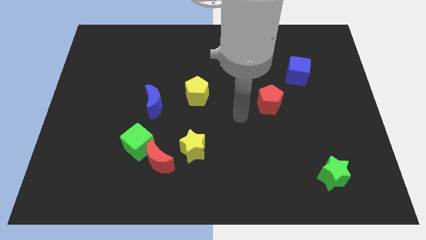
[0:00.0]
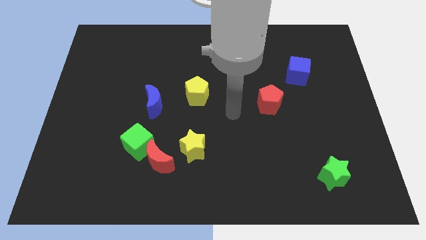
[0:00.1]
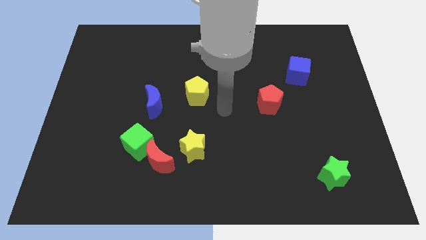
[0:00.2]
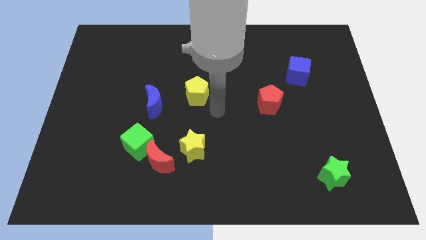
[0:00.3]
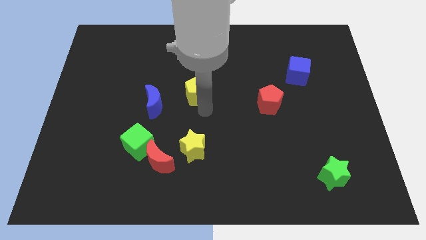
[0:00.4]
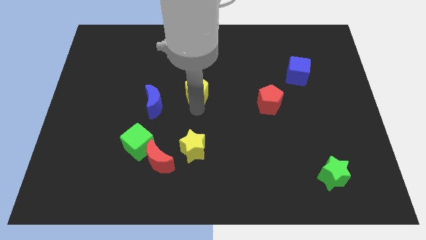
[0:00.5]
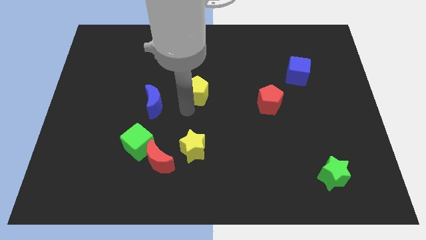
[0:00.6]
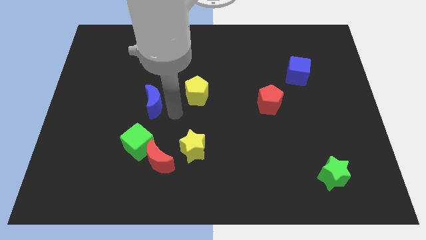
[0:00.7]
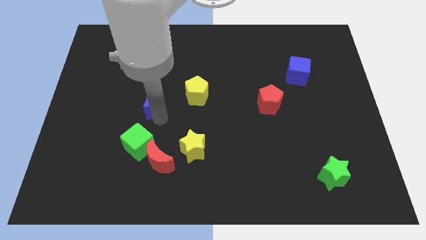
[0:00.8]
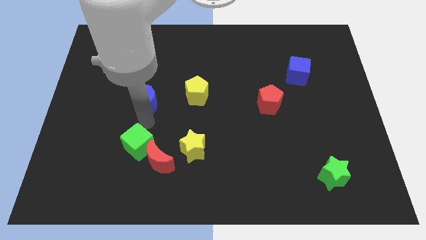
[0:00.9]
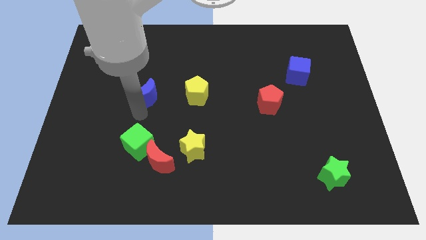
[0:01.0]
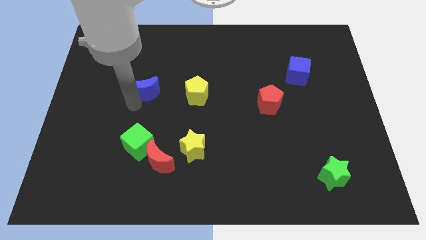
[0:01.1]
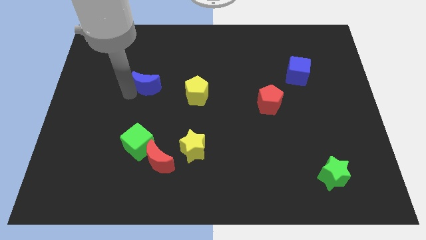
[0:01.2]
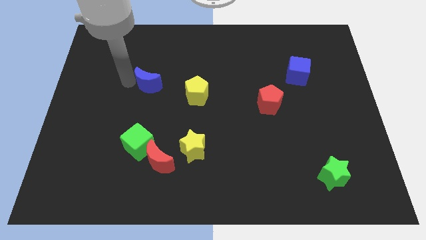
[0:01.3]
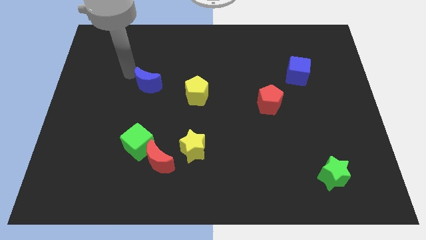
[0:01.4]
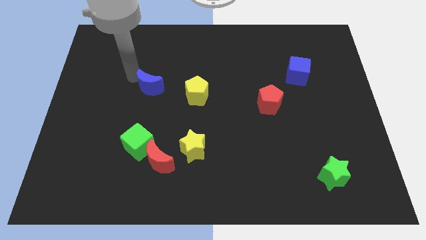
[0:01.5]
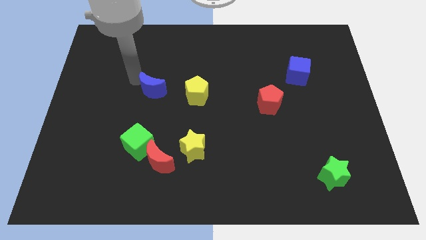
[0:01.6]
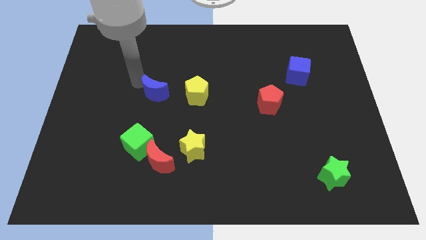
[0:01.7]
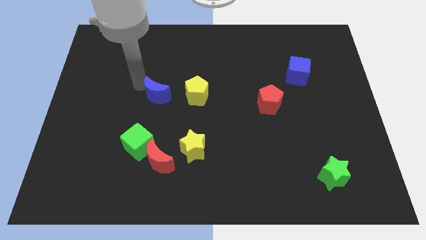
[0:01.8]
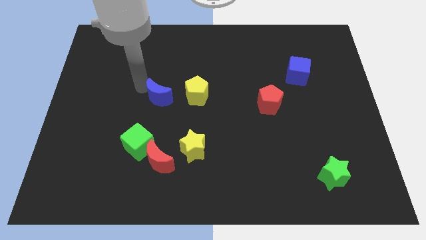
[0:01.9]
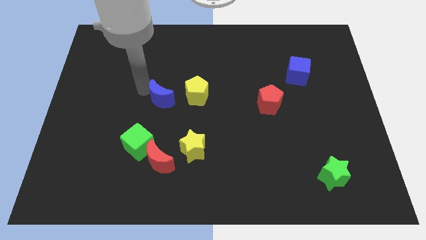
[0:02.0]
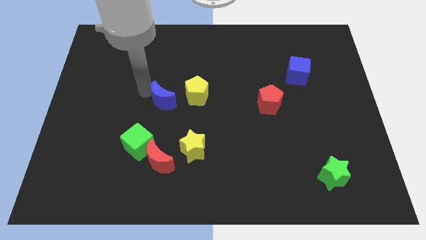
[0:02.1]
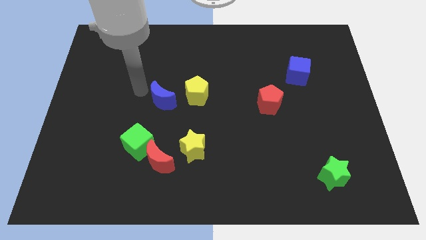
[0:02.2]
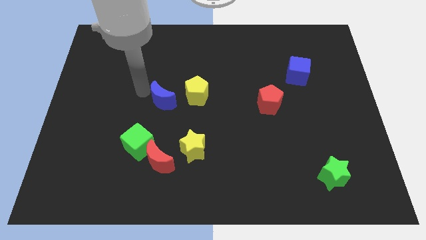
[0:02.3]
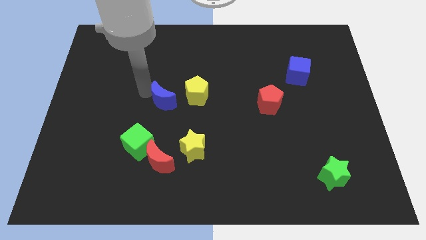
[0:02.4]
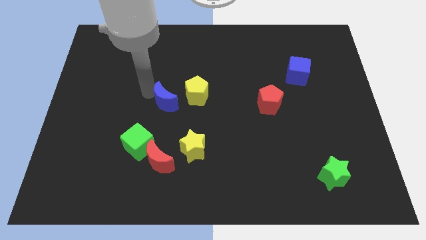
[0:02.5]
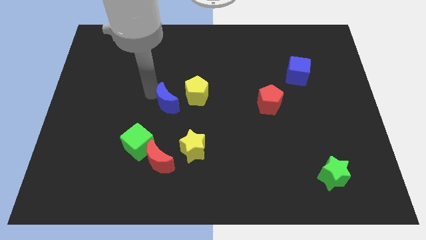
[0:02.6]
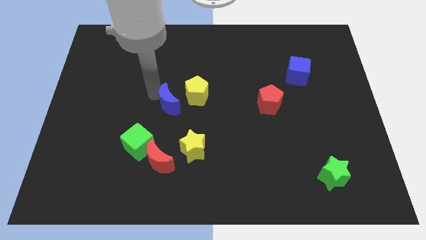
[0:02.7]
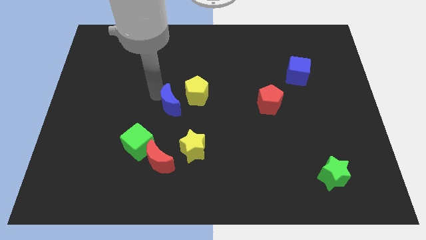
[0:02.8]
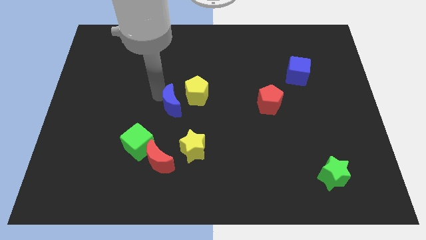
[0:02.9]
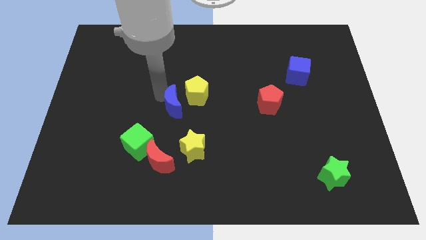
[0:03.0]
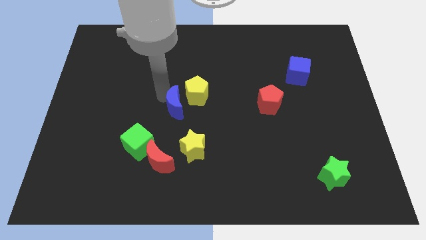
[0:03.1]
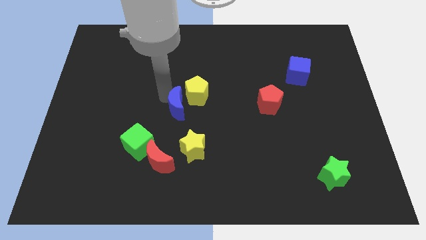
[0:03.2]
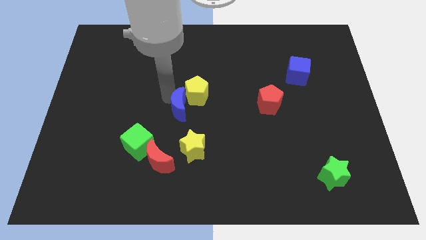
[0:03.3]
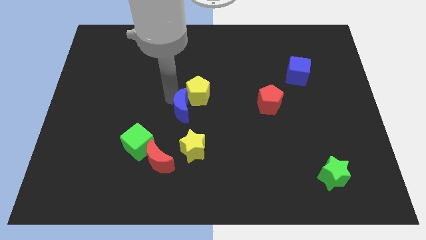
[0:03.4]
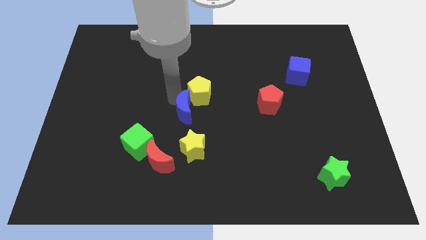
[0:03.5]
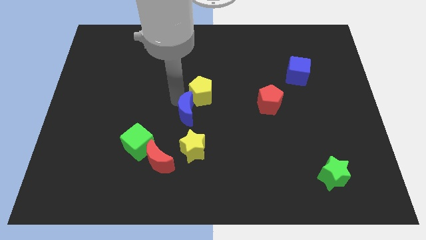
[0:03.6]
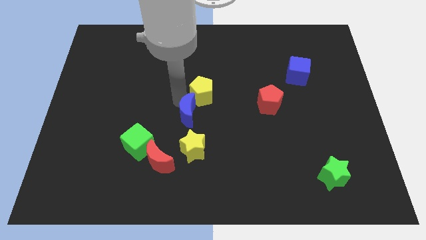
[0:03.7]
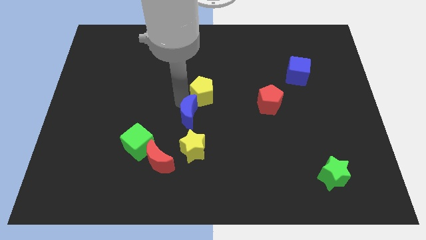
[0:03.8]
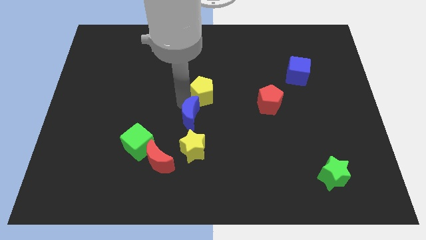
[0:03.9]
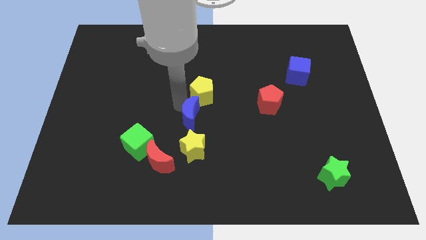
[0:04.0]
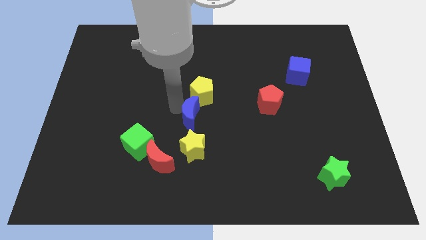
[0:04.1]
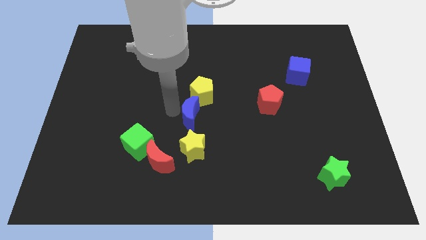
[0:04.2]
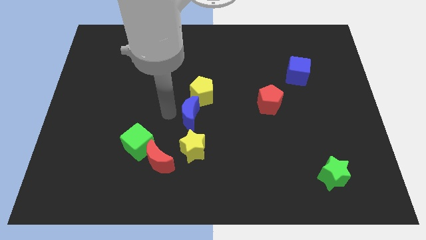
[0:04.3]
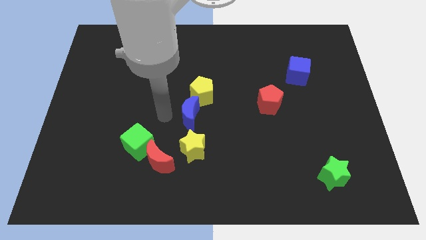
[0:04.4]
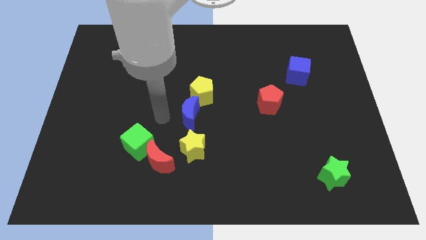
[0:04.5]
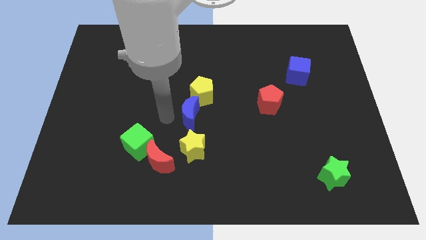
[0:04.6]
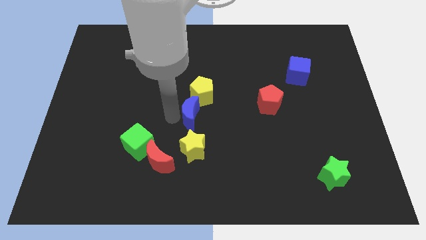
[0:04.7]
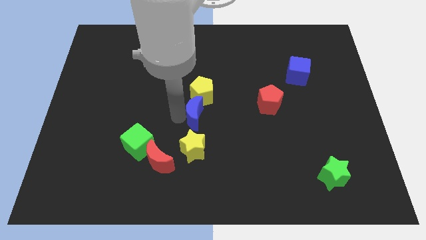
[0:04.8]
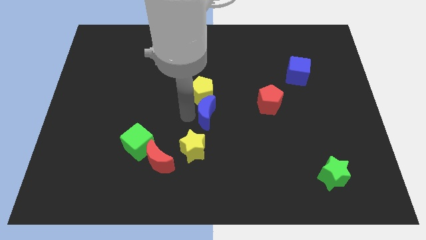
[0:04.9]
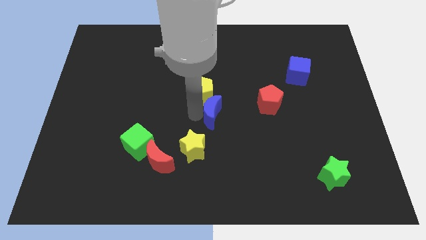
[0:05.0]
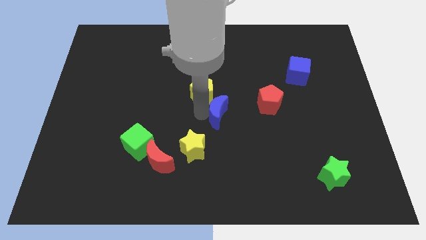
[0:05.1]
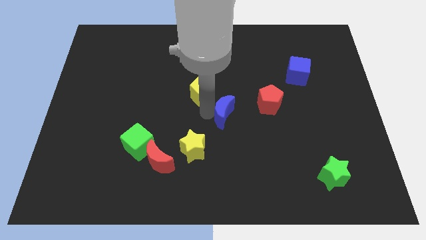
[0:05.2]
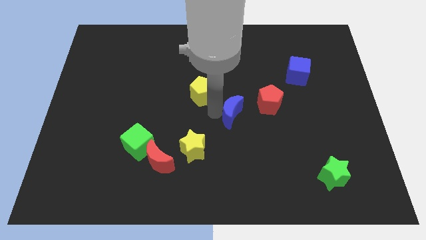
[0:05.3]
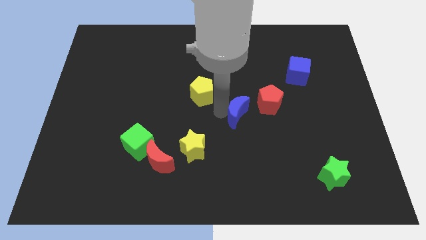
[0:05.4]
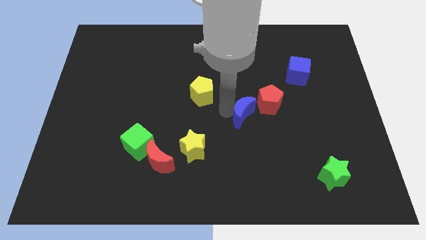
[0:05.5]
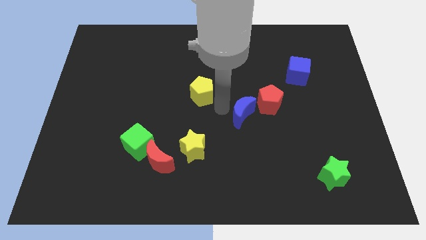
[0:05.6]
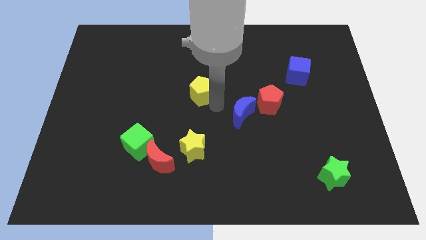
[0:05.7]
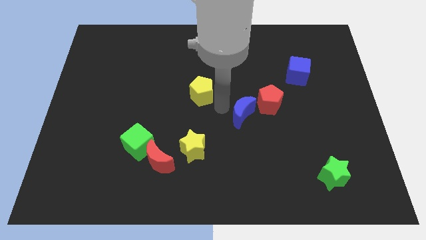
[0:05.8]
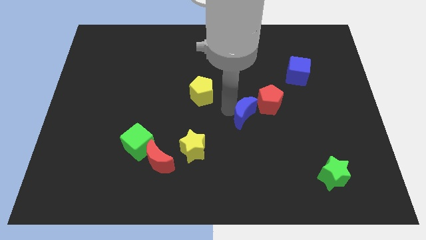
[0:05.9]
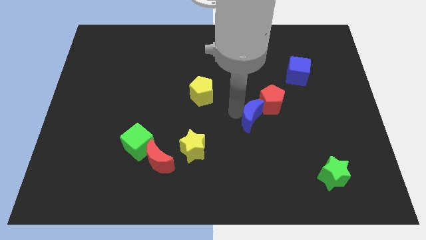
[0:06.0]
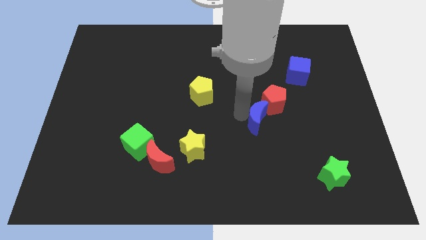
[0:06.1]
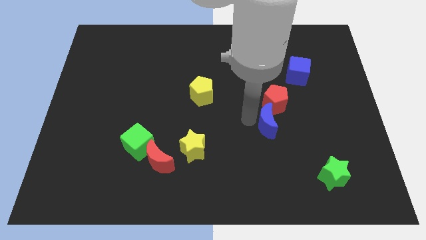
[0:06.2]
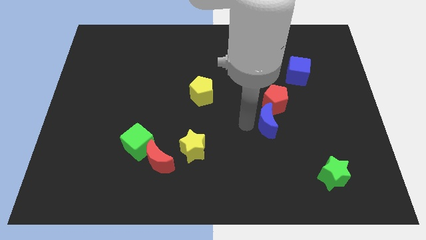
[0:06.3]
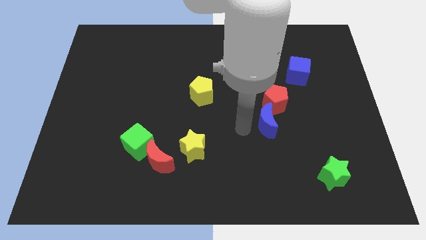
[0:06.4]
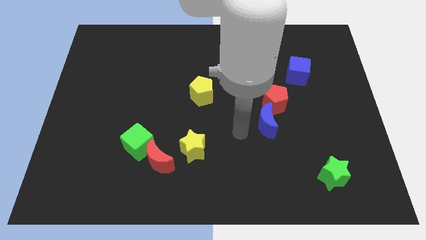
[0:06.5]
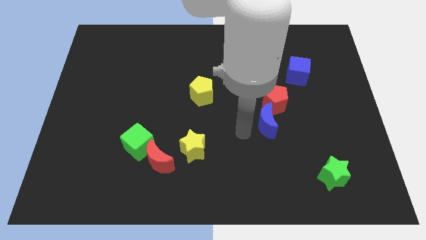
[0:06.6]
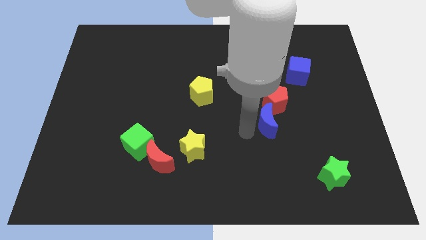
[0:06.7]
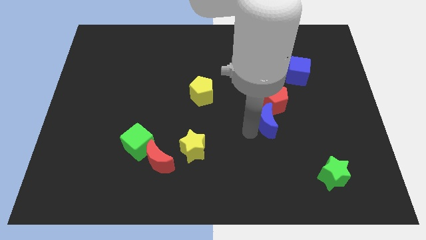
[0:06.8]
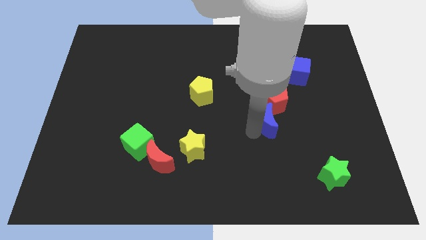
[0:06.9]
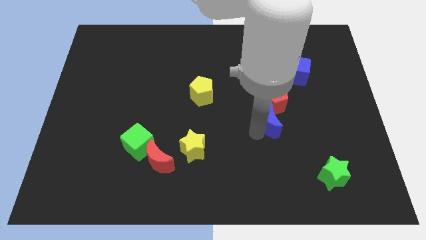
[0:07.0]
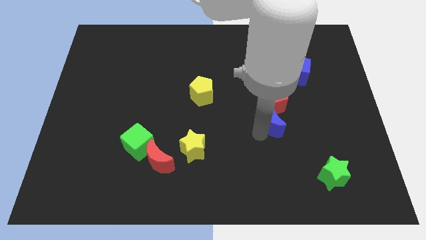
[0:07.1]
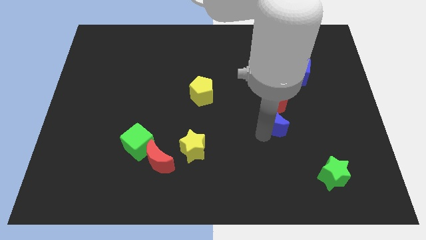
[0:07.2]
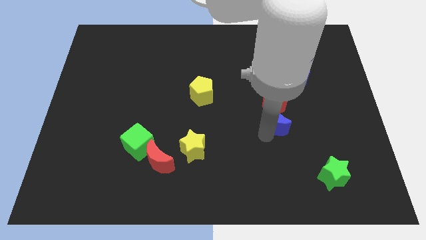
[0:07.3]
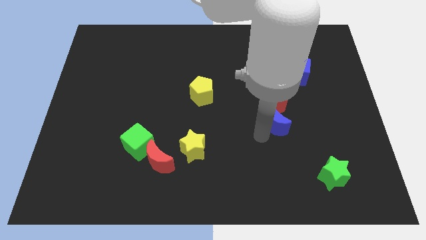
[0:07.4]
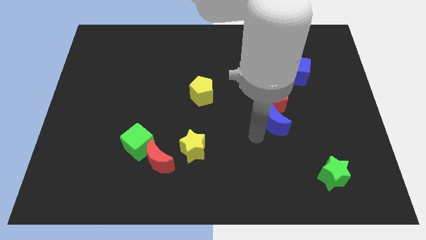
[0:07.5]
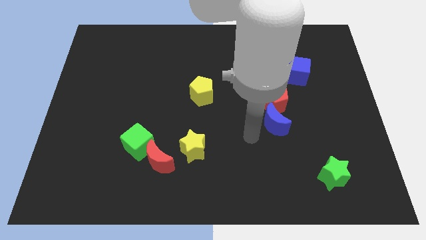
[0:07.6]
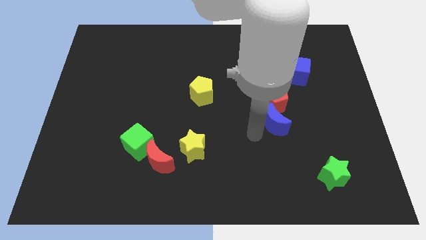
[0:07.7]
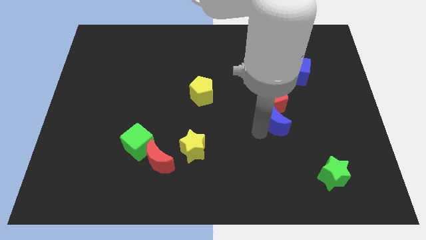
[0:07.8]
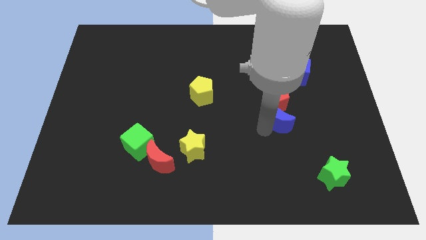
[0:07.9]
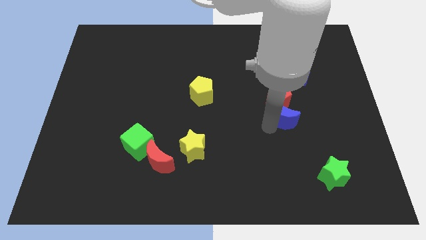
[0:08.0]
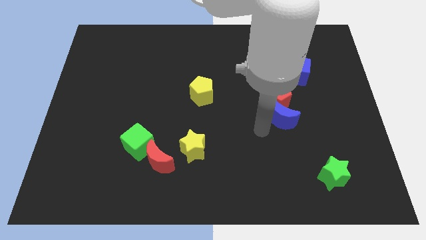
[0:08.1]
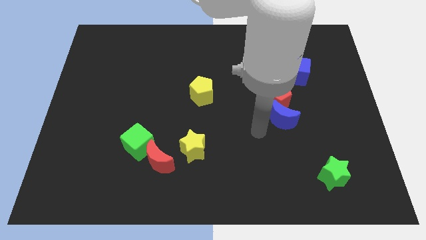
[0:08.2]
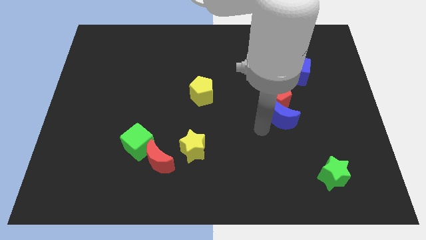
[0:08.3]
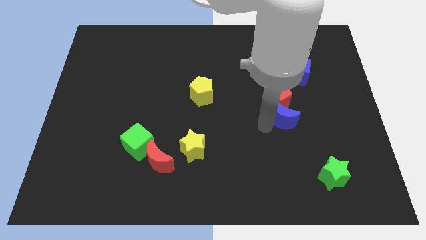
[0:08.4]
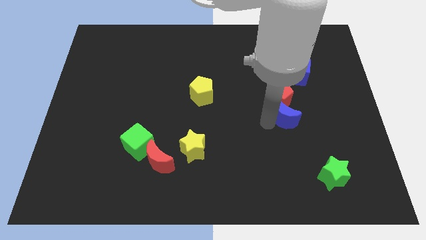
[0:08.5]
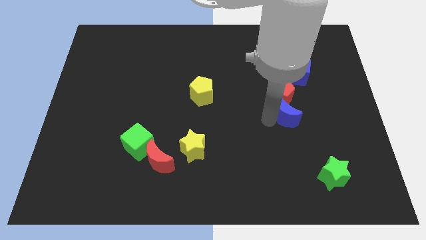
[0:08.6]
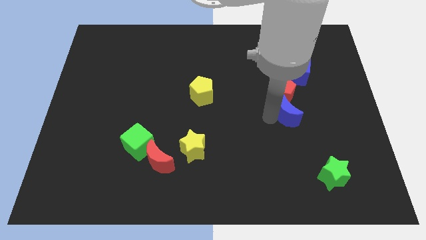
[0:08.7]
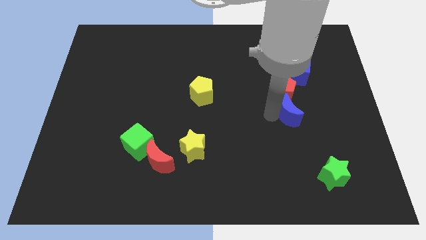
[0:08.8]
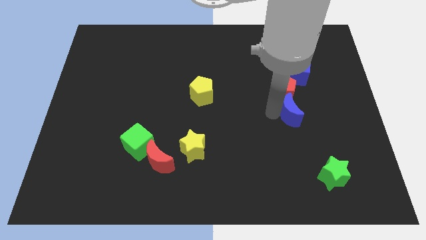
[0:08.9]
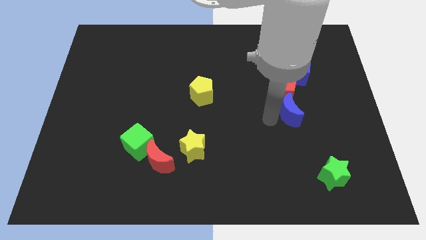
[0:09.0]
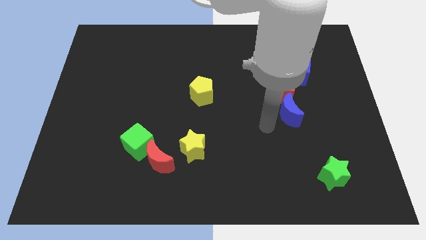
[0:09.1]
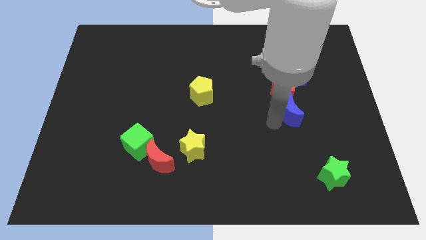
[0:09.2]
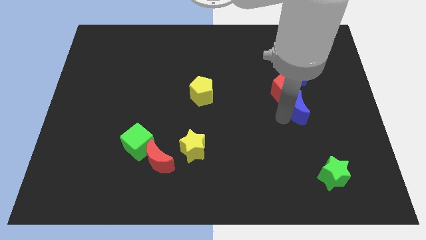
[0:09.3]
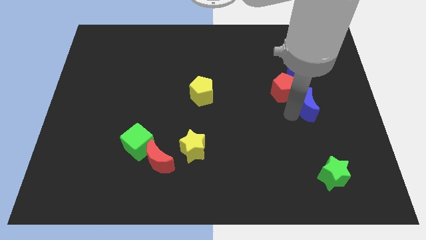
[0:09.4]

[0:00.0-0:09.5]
move the blue moon to the right of the red pentagon
